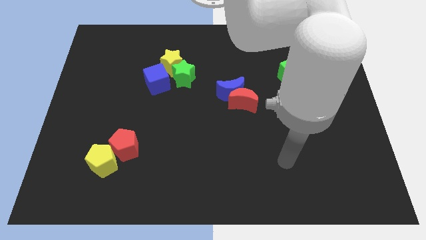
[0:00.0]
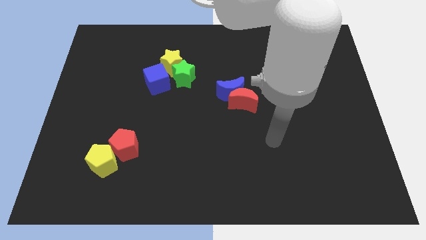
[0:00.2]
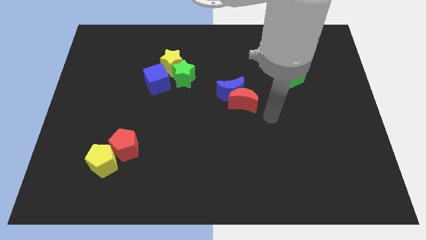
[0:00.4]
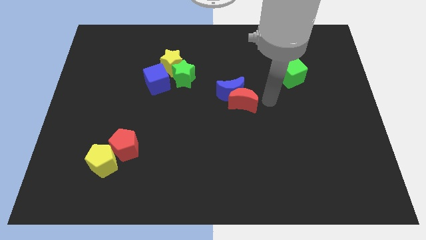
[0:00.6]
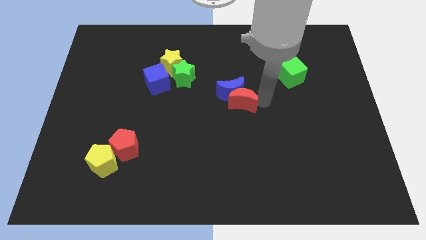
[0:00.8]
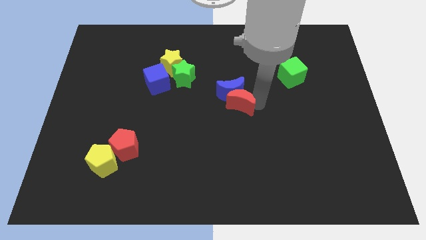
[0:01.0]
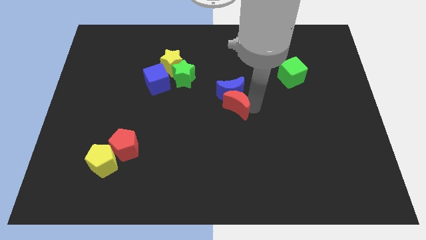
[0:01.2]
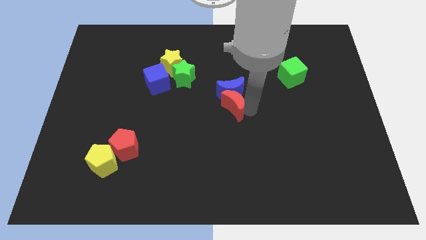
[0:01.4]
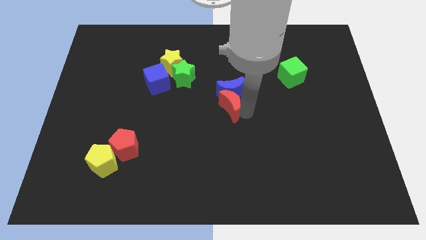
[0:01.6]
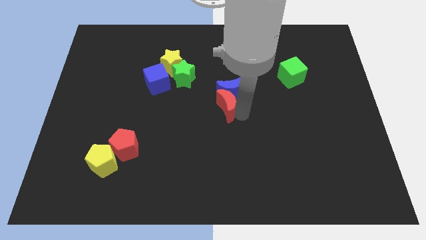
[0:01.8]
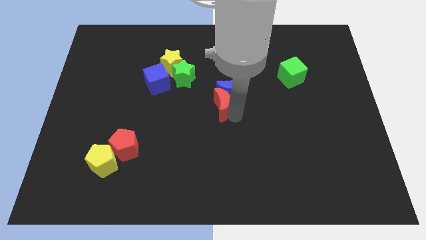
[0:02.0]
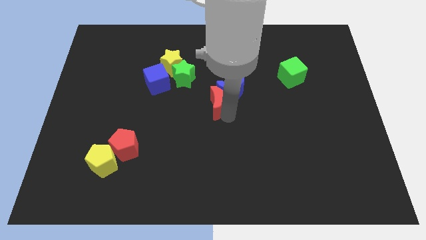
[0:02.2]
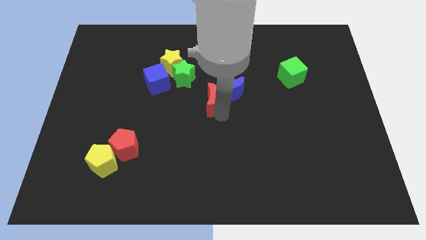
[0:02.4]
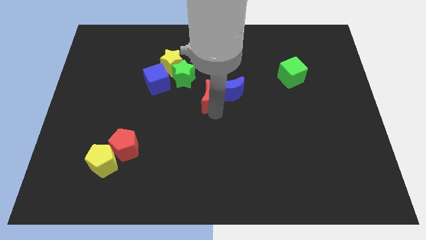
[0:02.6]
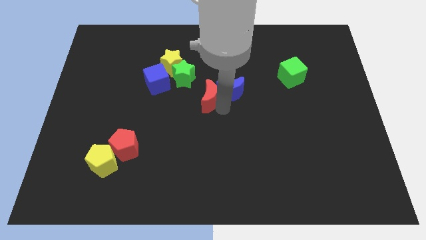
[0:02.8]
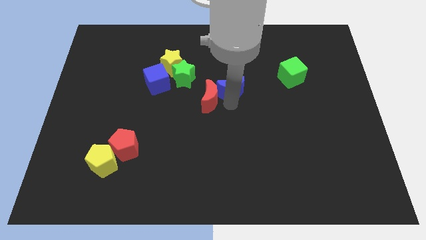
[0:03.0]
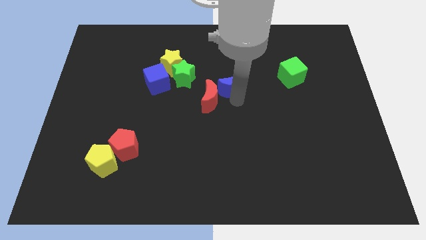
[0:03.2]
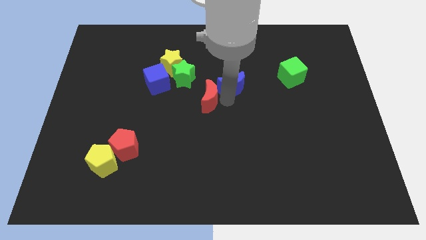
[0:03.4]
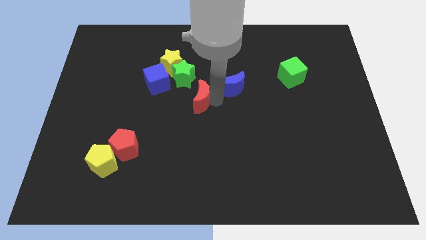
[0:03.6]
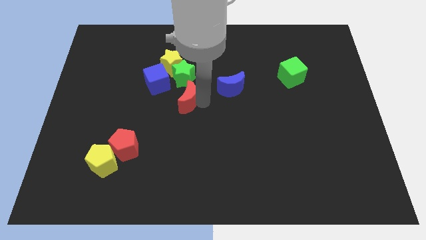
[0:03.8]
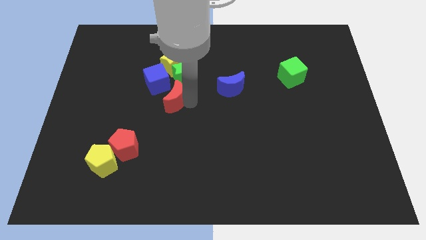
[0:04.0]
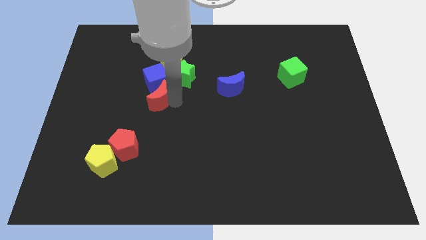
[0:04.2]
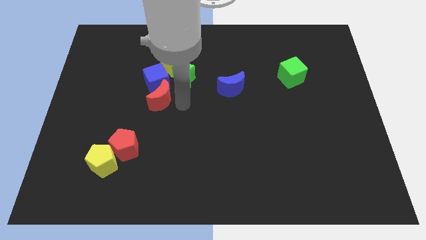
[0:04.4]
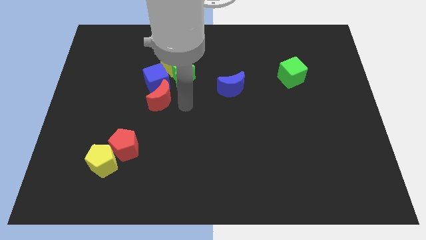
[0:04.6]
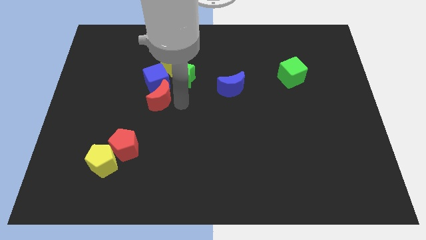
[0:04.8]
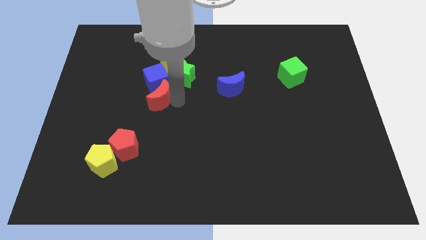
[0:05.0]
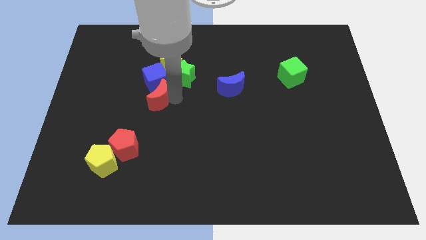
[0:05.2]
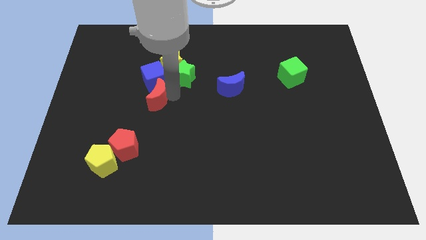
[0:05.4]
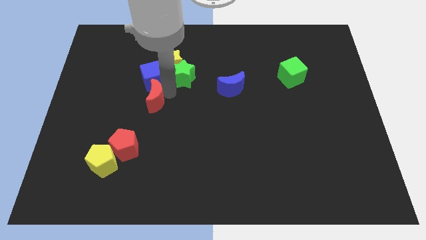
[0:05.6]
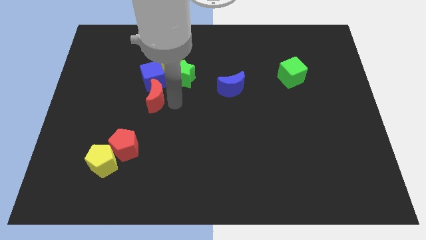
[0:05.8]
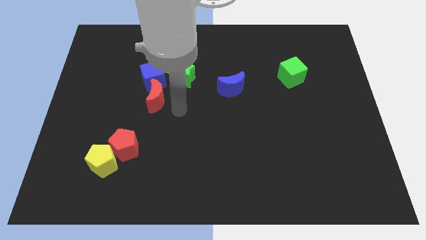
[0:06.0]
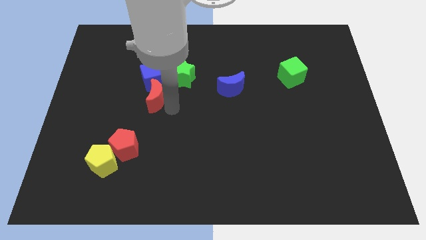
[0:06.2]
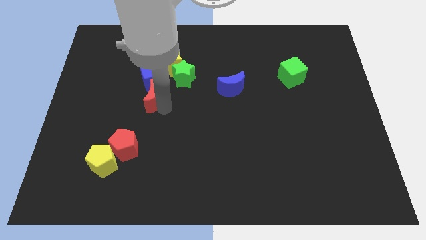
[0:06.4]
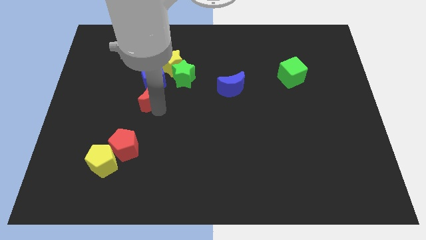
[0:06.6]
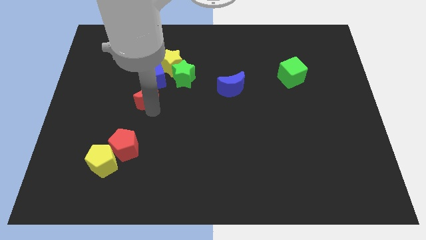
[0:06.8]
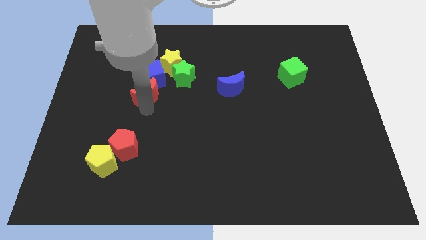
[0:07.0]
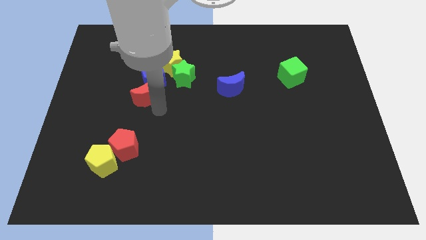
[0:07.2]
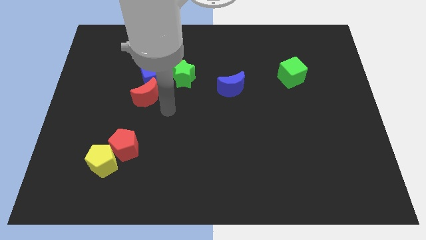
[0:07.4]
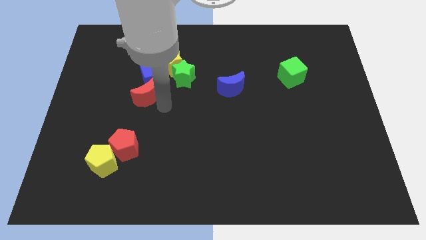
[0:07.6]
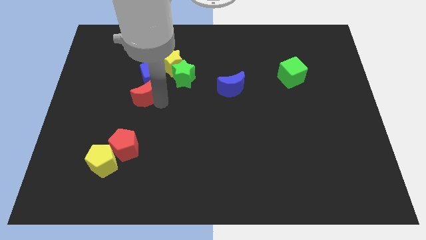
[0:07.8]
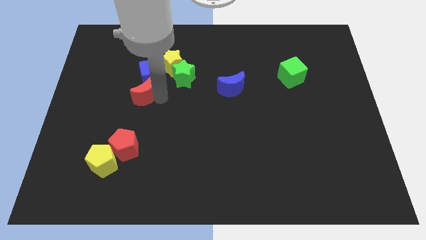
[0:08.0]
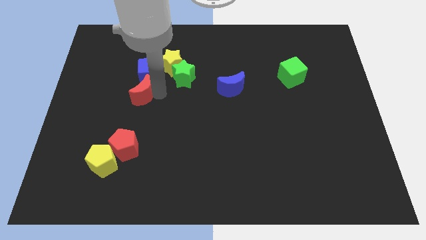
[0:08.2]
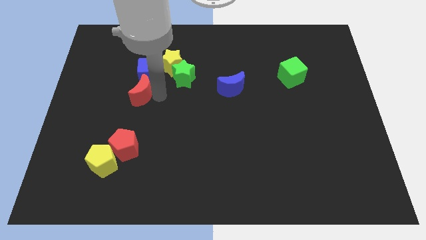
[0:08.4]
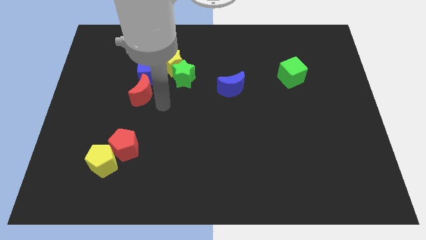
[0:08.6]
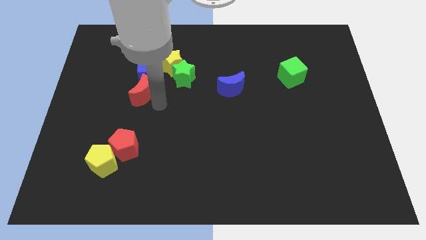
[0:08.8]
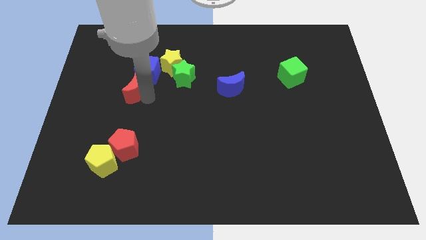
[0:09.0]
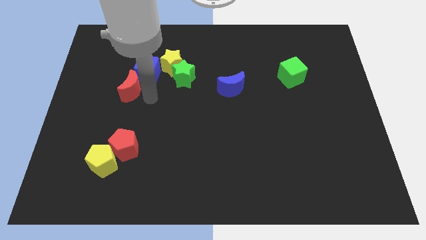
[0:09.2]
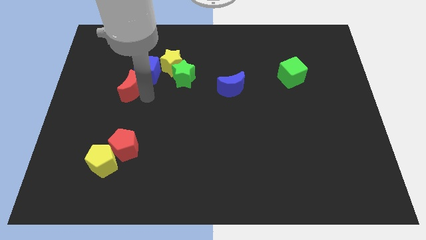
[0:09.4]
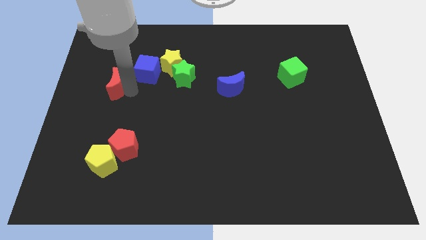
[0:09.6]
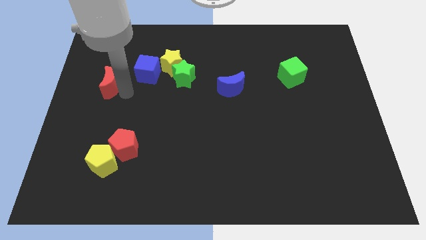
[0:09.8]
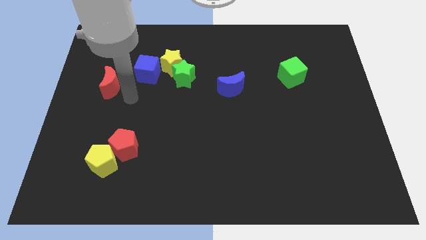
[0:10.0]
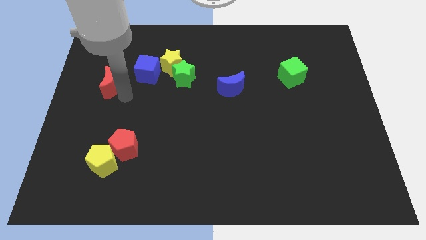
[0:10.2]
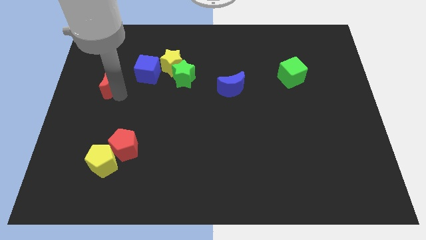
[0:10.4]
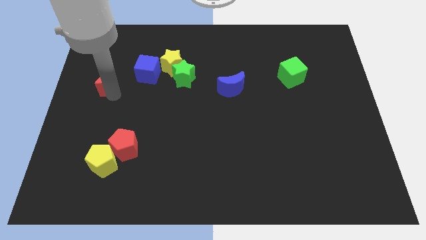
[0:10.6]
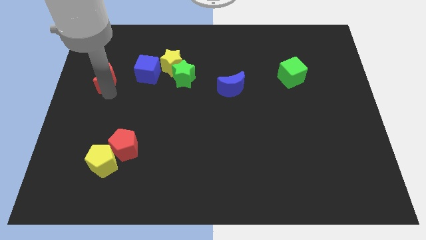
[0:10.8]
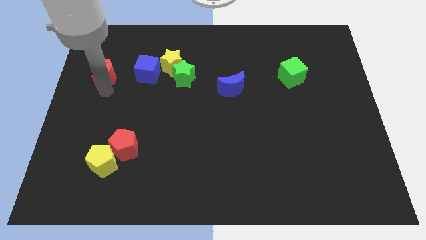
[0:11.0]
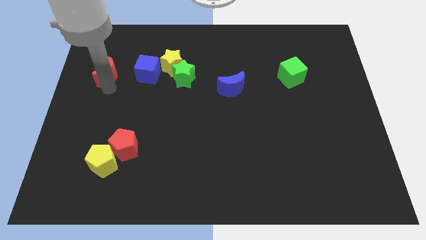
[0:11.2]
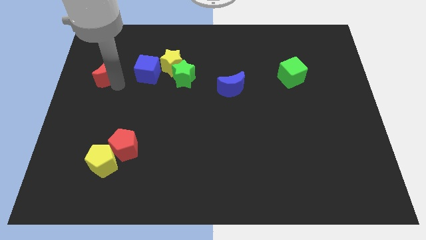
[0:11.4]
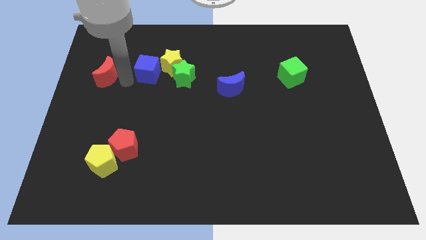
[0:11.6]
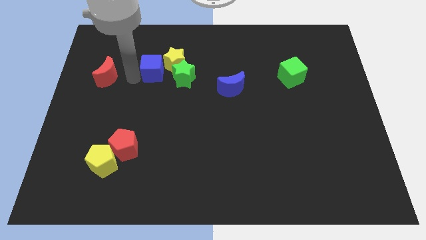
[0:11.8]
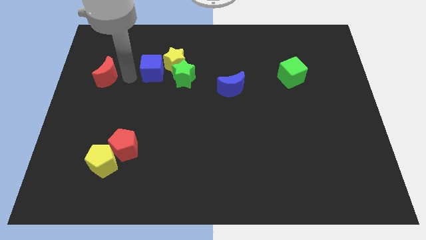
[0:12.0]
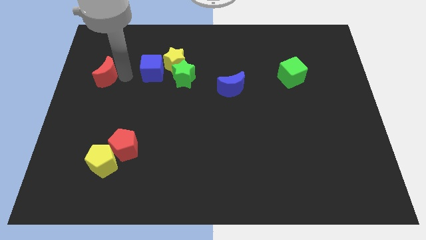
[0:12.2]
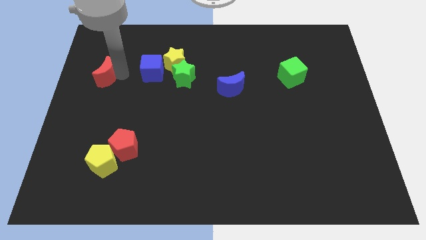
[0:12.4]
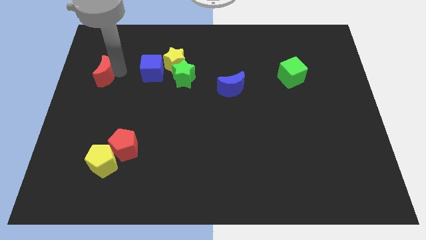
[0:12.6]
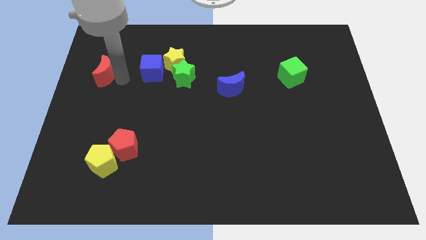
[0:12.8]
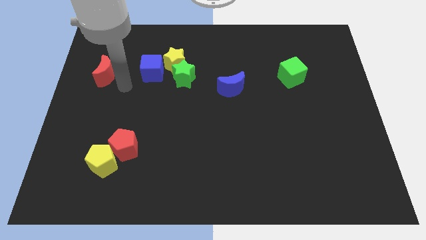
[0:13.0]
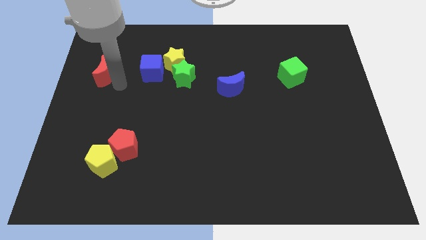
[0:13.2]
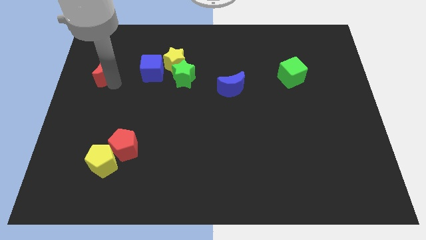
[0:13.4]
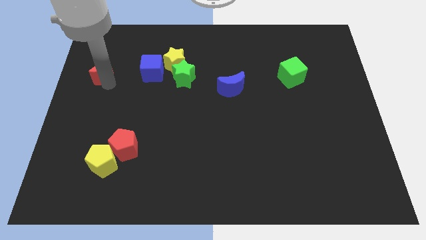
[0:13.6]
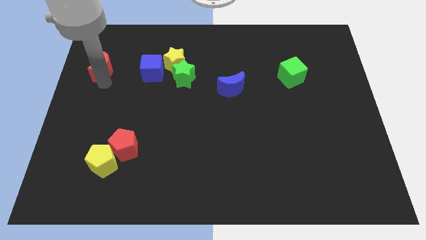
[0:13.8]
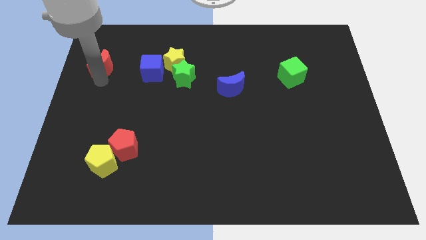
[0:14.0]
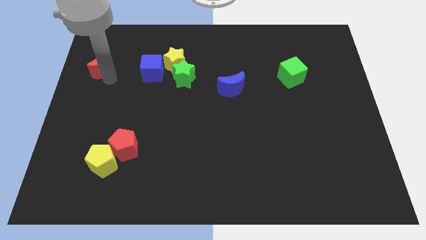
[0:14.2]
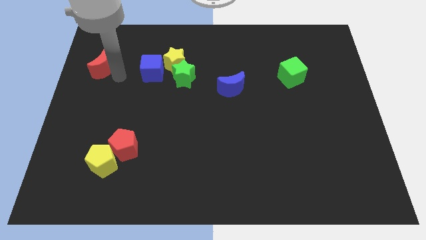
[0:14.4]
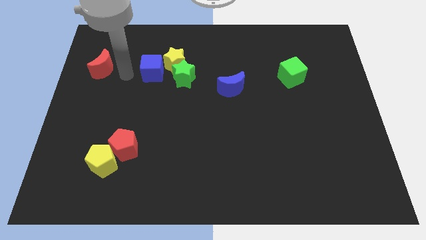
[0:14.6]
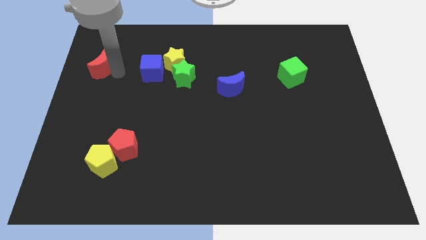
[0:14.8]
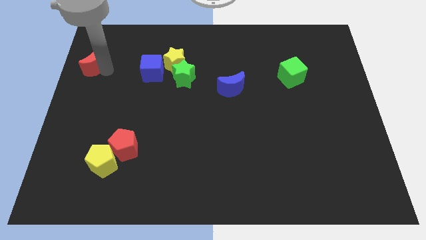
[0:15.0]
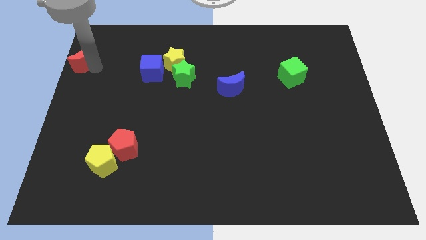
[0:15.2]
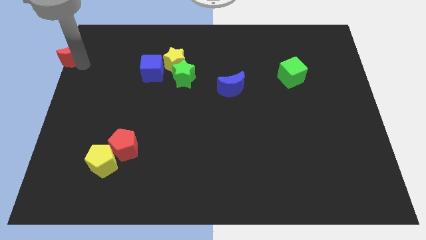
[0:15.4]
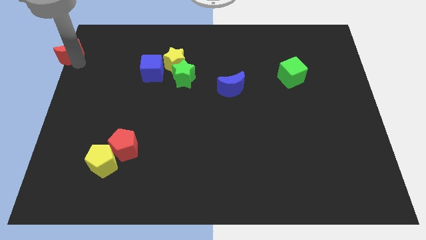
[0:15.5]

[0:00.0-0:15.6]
put the red moon to the upper left corner
